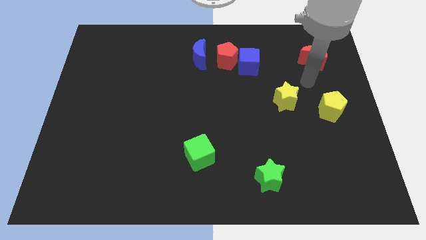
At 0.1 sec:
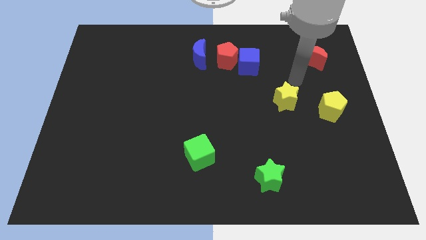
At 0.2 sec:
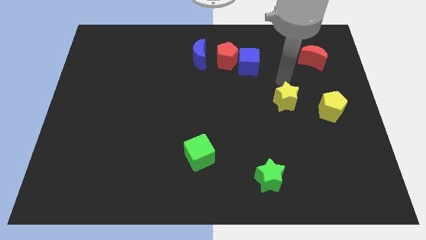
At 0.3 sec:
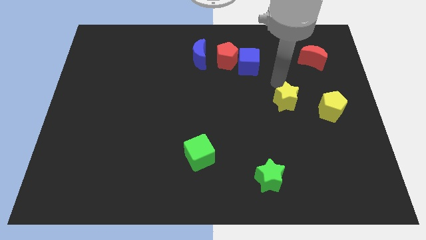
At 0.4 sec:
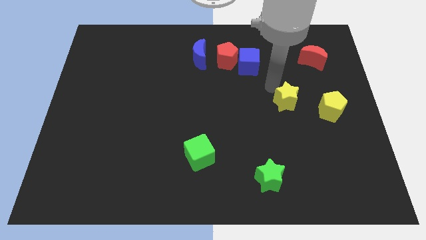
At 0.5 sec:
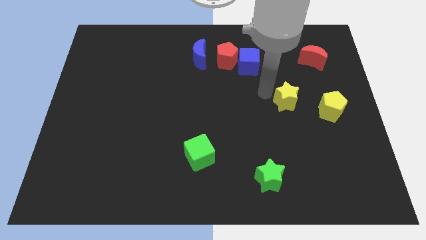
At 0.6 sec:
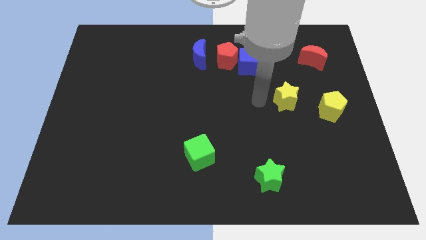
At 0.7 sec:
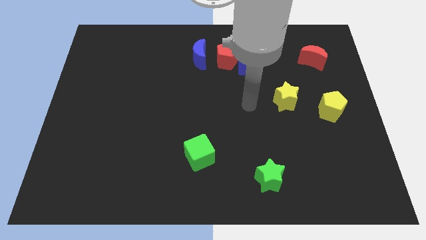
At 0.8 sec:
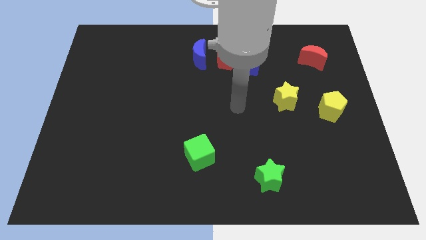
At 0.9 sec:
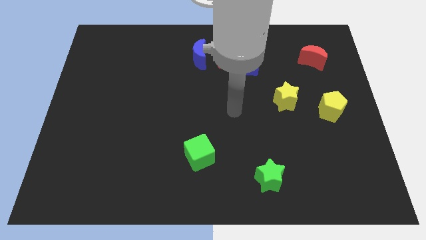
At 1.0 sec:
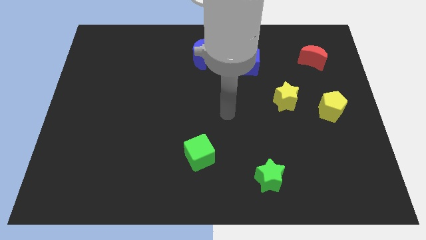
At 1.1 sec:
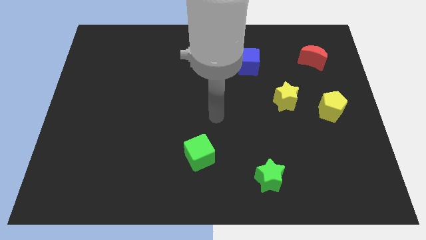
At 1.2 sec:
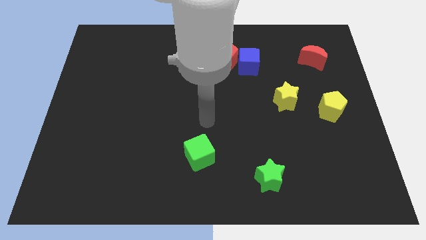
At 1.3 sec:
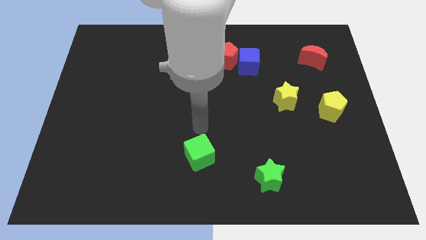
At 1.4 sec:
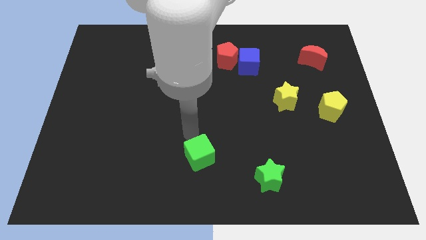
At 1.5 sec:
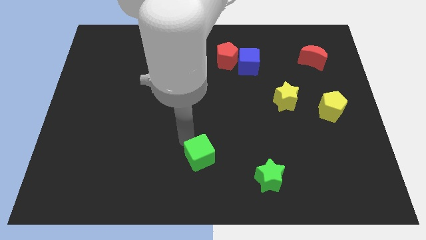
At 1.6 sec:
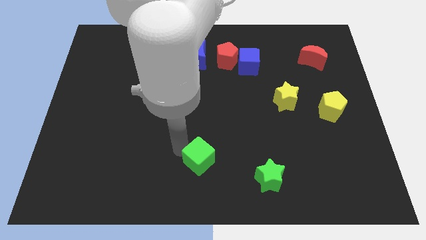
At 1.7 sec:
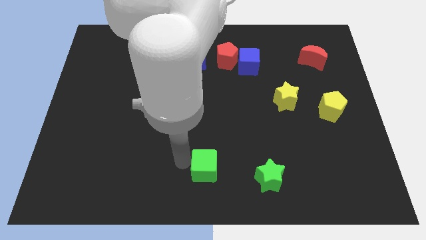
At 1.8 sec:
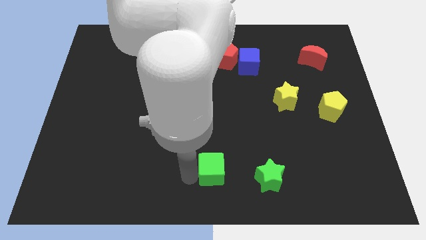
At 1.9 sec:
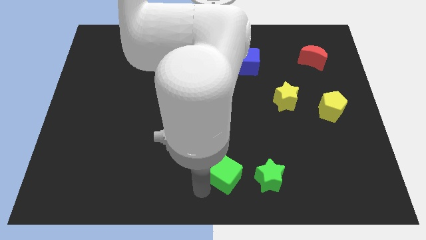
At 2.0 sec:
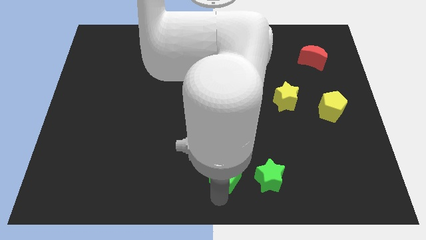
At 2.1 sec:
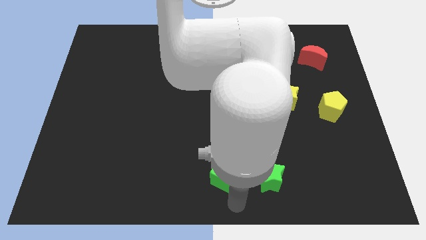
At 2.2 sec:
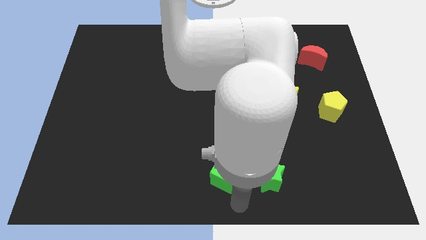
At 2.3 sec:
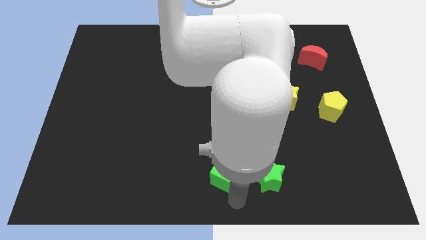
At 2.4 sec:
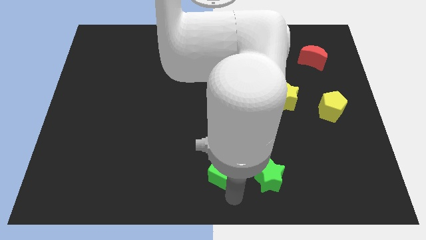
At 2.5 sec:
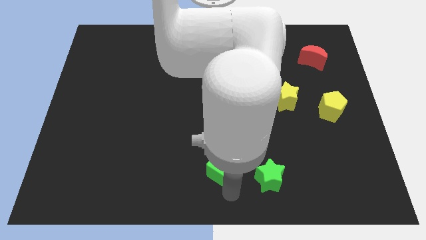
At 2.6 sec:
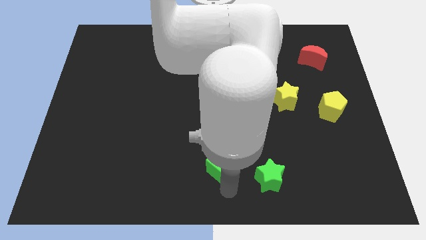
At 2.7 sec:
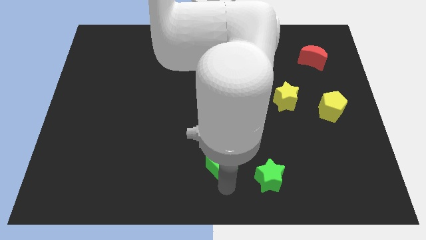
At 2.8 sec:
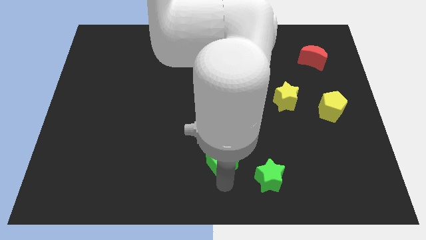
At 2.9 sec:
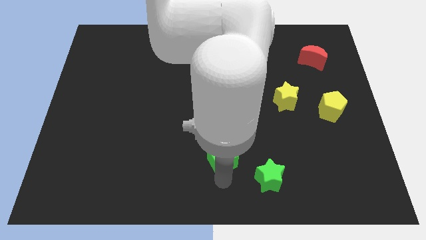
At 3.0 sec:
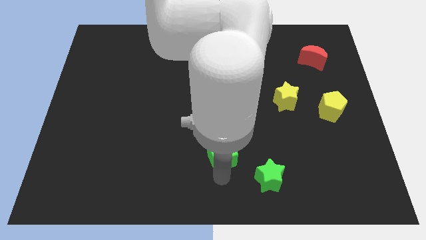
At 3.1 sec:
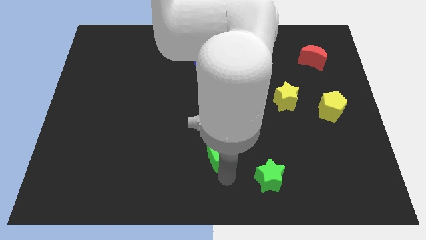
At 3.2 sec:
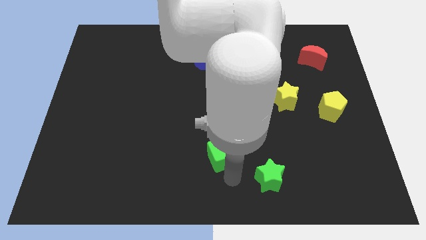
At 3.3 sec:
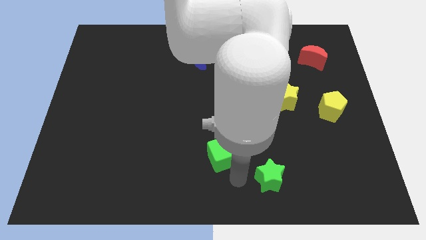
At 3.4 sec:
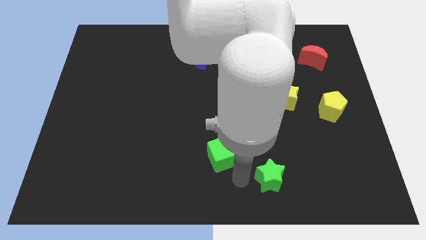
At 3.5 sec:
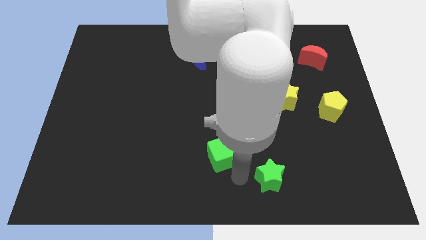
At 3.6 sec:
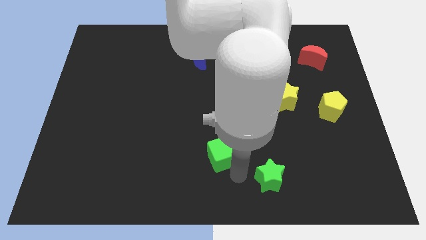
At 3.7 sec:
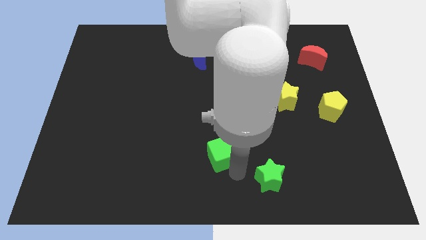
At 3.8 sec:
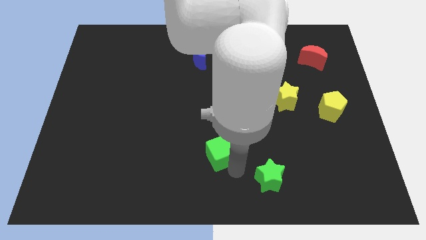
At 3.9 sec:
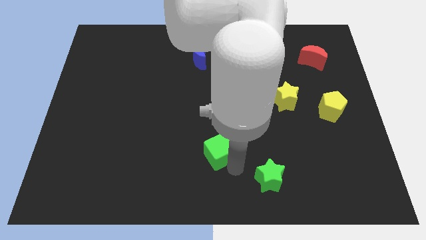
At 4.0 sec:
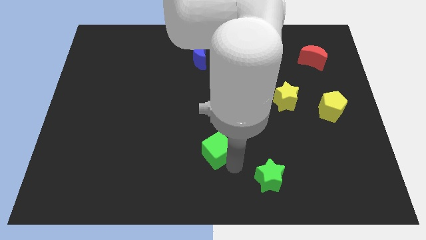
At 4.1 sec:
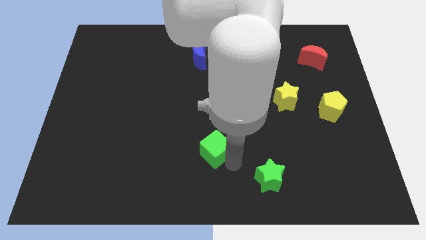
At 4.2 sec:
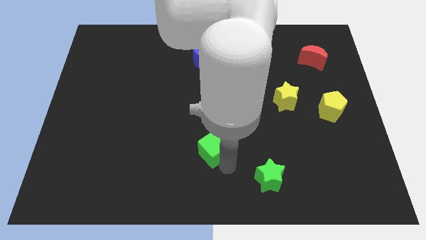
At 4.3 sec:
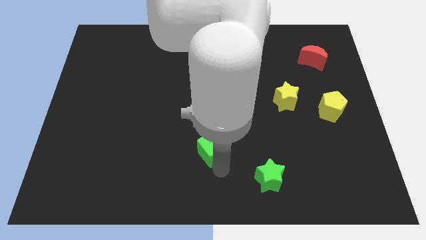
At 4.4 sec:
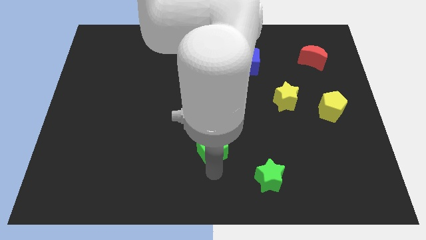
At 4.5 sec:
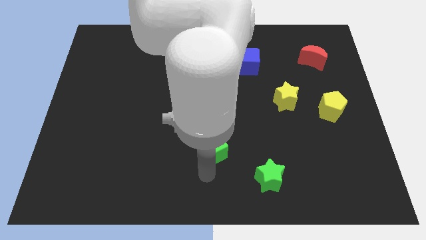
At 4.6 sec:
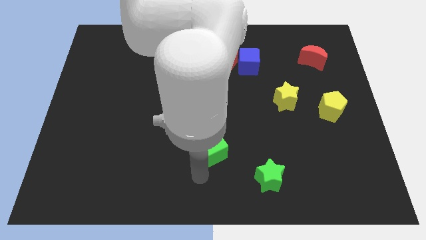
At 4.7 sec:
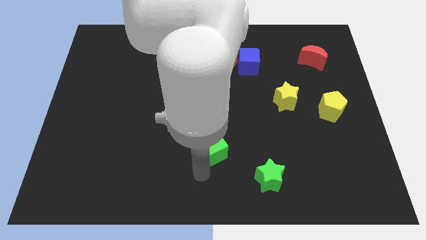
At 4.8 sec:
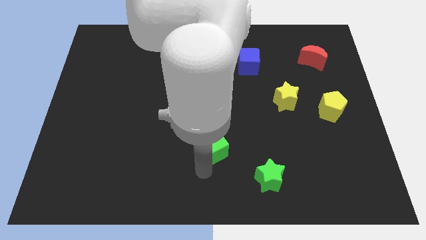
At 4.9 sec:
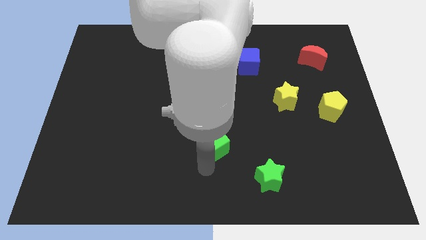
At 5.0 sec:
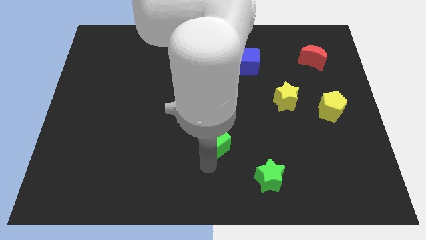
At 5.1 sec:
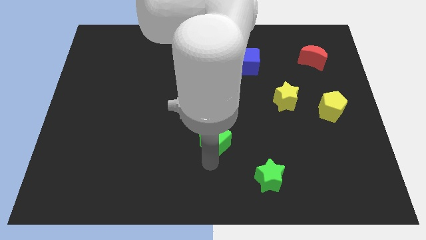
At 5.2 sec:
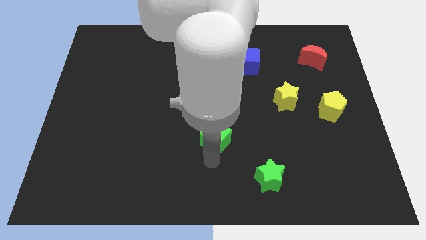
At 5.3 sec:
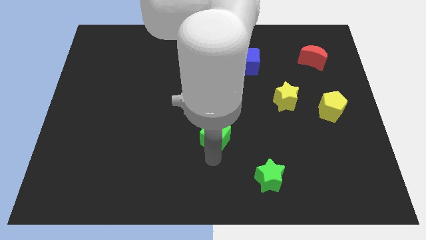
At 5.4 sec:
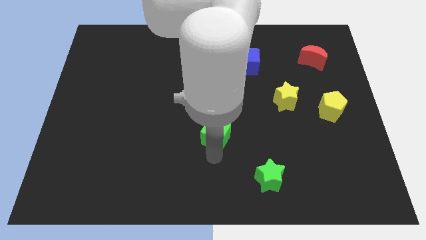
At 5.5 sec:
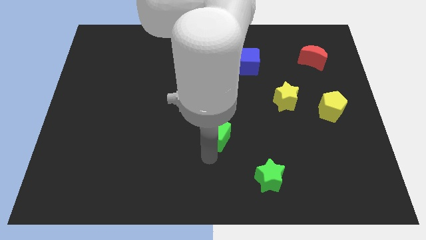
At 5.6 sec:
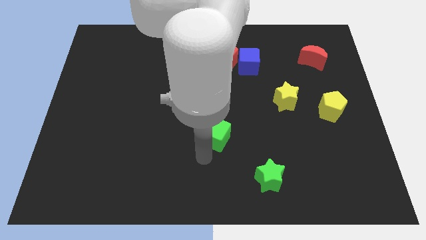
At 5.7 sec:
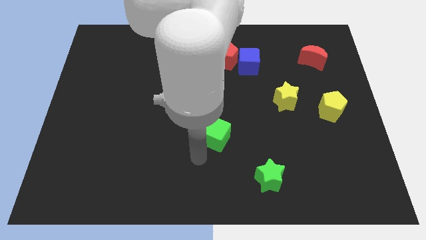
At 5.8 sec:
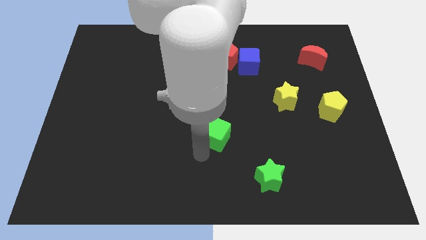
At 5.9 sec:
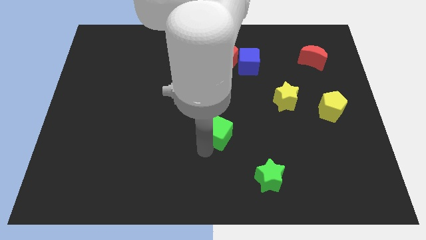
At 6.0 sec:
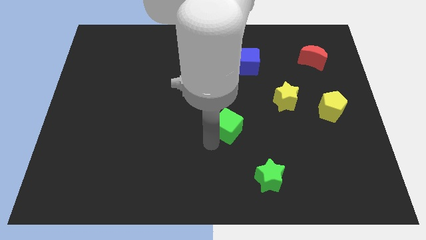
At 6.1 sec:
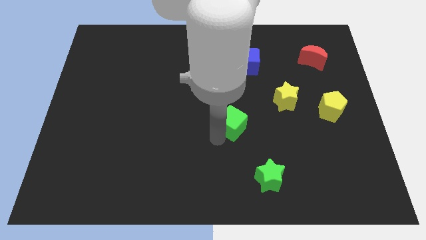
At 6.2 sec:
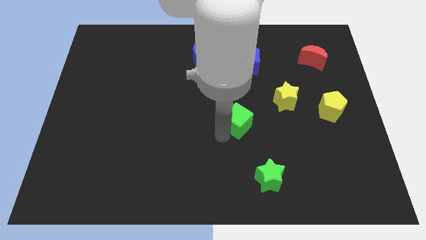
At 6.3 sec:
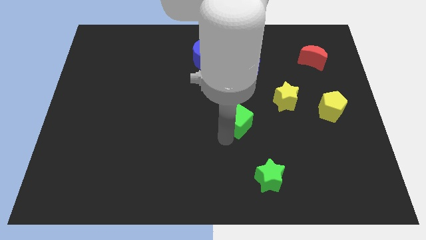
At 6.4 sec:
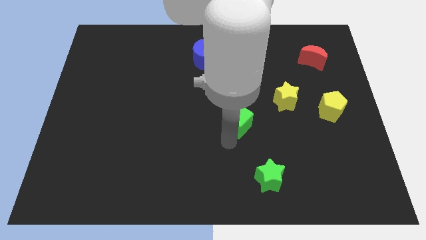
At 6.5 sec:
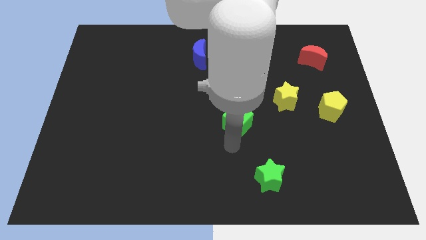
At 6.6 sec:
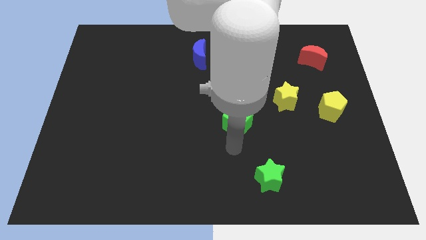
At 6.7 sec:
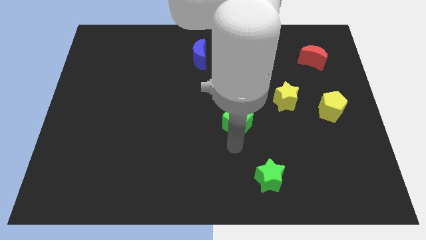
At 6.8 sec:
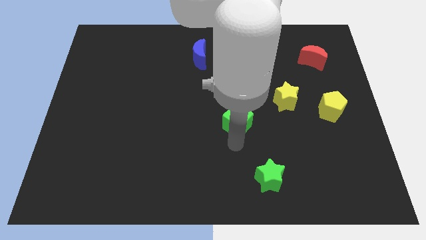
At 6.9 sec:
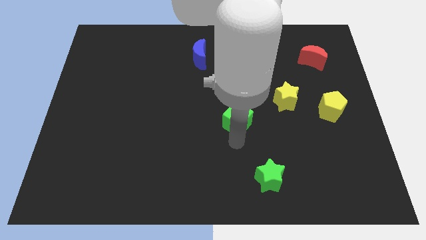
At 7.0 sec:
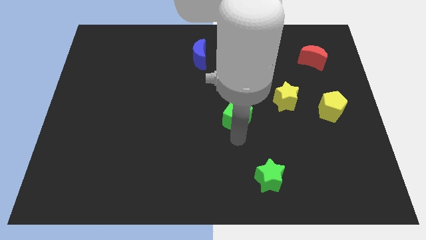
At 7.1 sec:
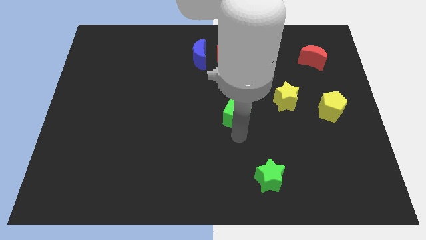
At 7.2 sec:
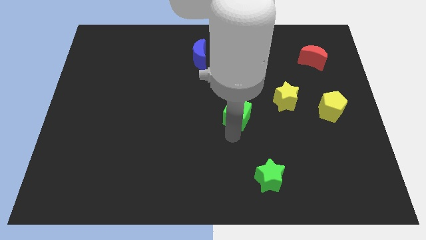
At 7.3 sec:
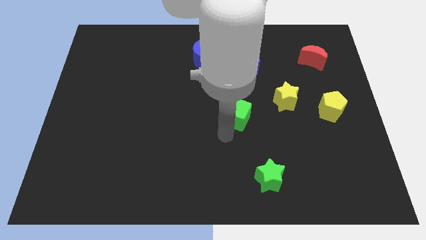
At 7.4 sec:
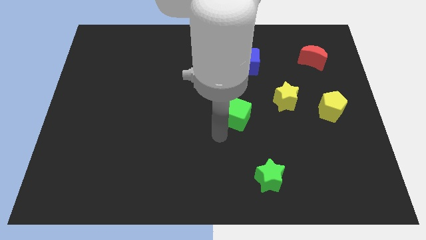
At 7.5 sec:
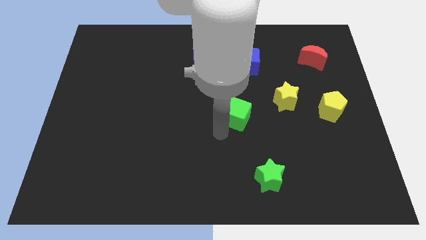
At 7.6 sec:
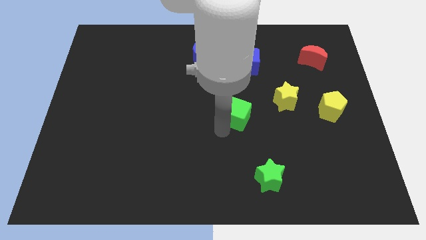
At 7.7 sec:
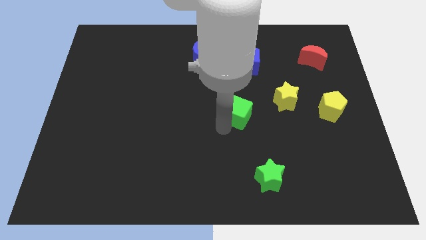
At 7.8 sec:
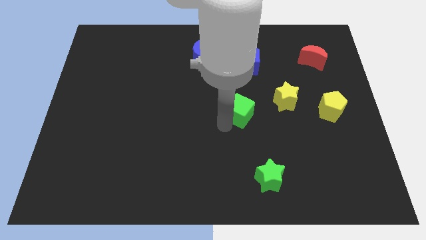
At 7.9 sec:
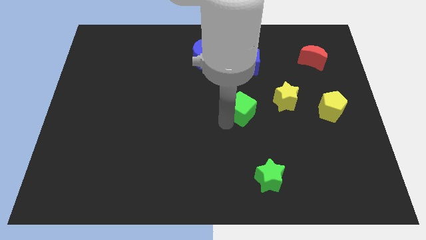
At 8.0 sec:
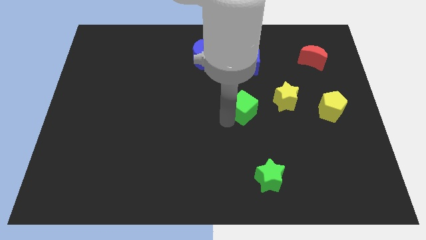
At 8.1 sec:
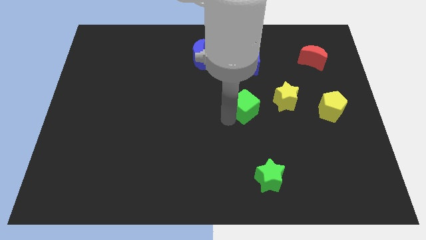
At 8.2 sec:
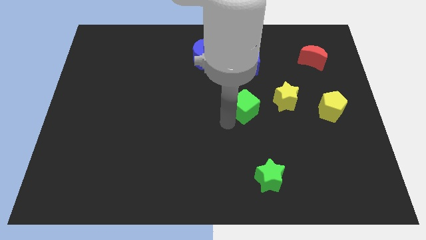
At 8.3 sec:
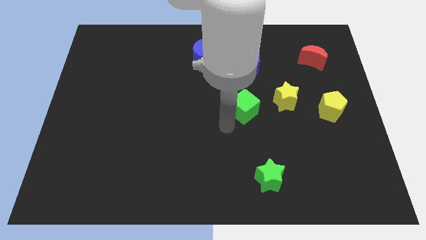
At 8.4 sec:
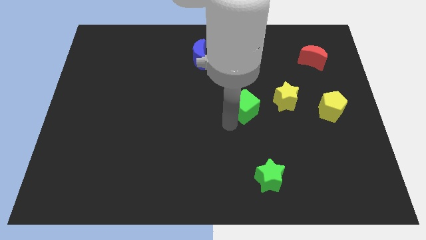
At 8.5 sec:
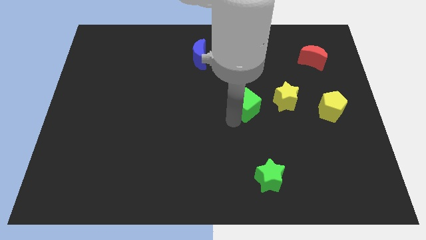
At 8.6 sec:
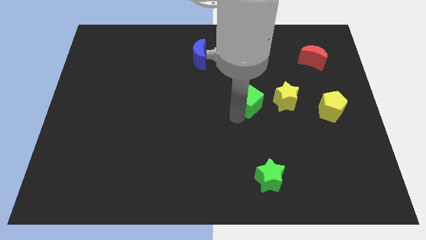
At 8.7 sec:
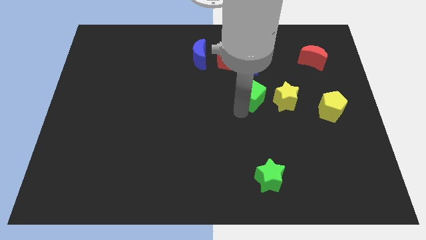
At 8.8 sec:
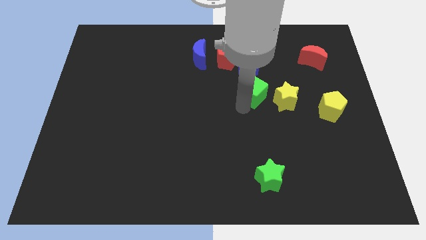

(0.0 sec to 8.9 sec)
push the green cube diagonally up and to the right
